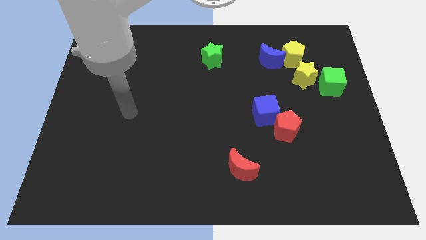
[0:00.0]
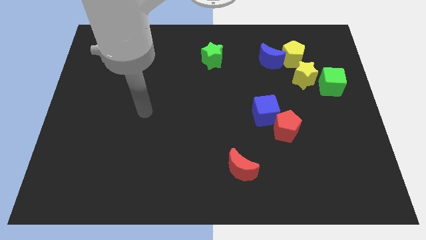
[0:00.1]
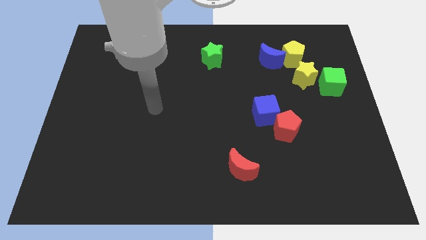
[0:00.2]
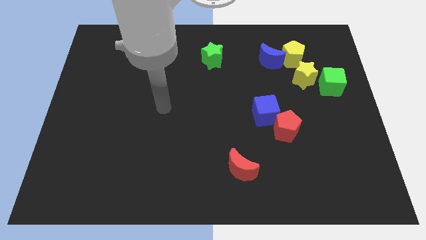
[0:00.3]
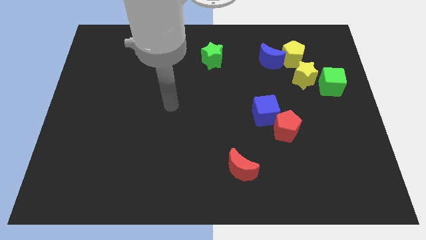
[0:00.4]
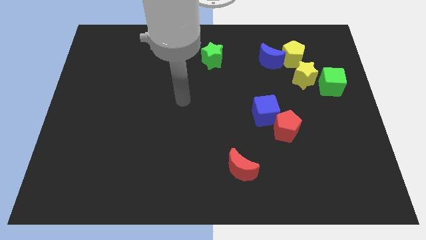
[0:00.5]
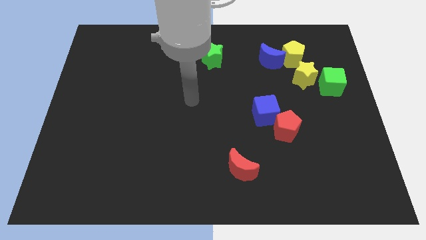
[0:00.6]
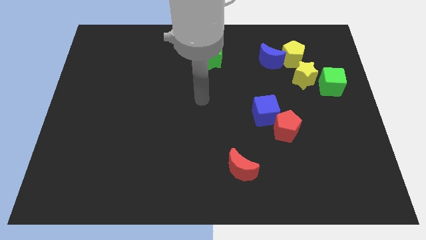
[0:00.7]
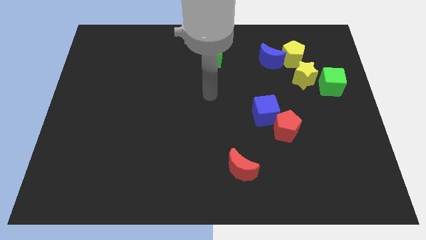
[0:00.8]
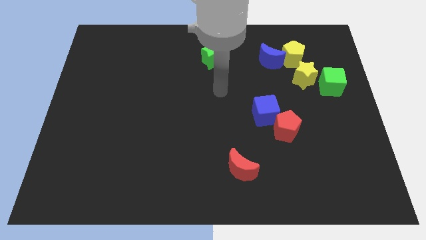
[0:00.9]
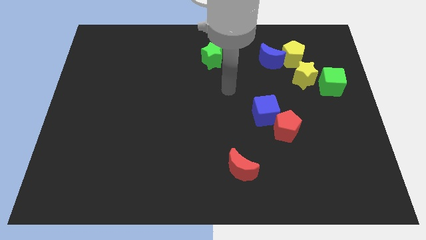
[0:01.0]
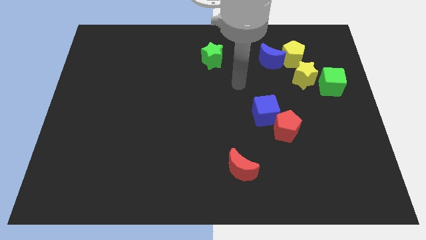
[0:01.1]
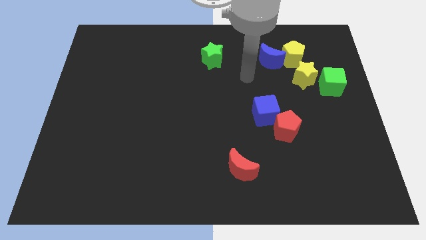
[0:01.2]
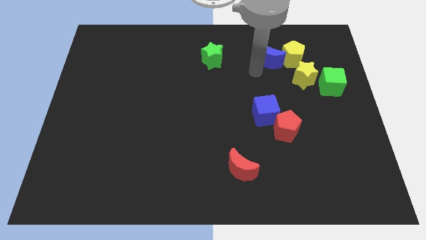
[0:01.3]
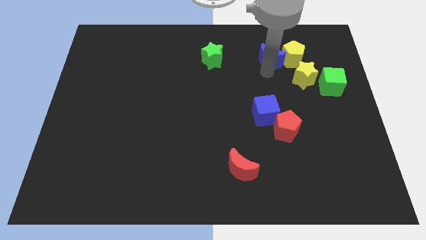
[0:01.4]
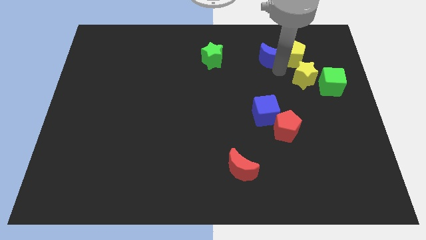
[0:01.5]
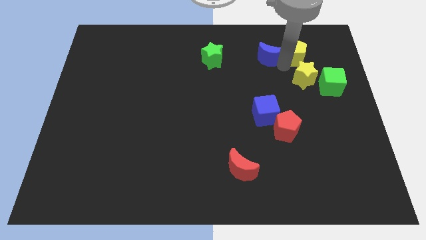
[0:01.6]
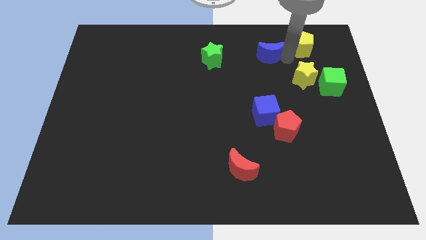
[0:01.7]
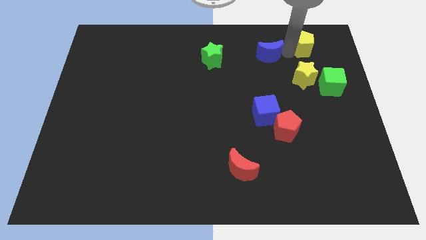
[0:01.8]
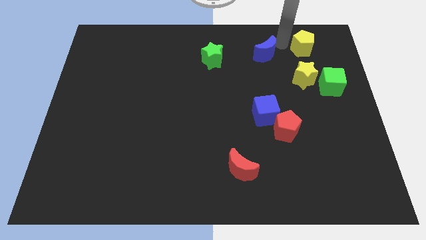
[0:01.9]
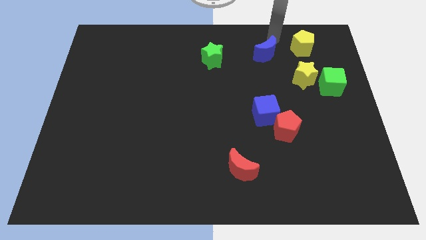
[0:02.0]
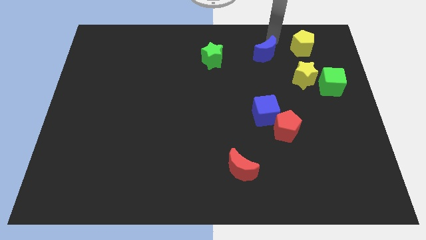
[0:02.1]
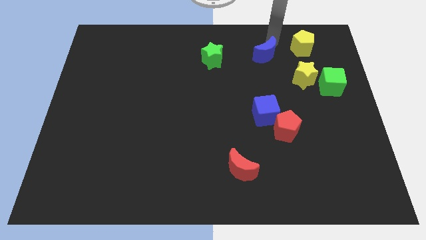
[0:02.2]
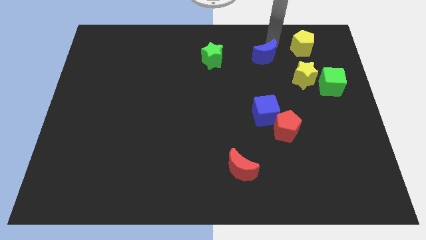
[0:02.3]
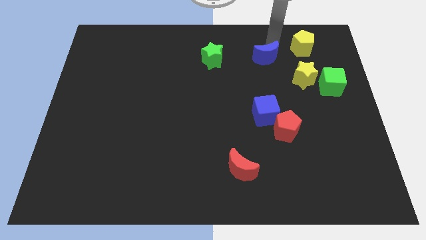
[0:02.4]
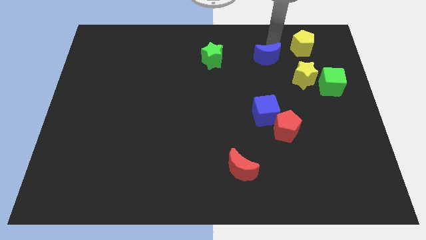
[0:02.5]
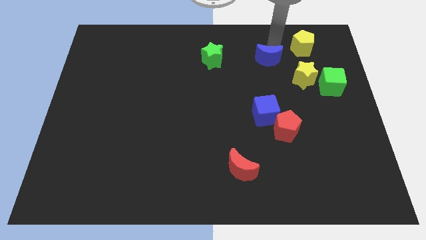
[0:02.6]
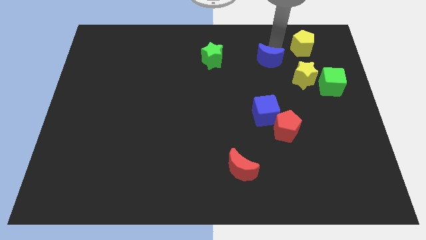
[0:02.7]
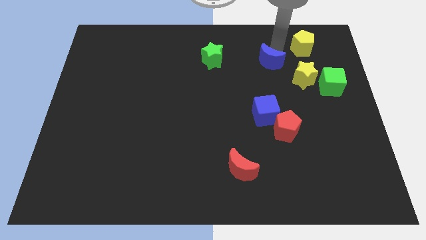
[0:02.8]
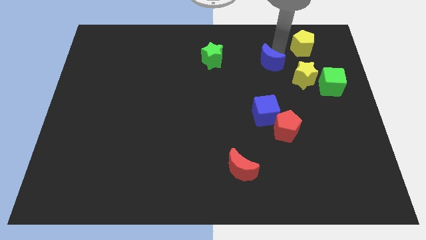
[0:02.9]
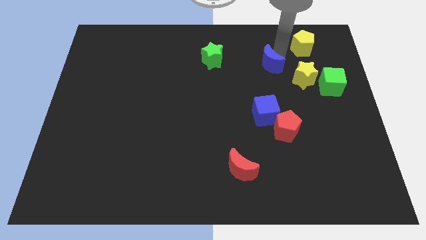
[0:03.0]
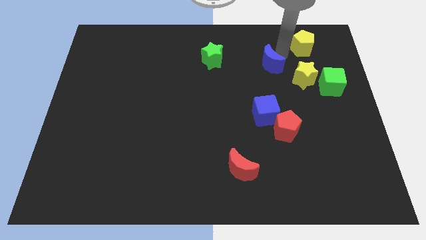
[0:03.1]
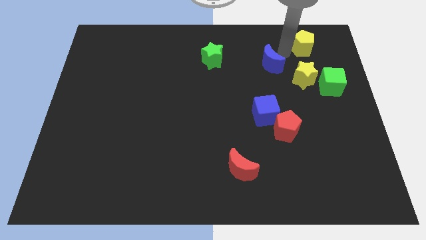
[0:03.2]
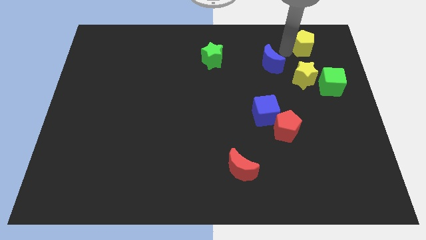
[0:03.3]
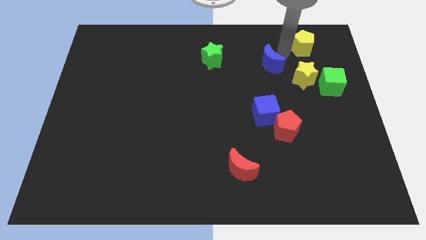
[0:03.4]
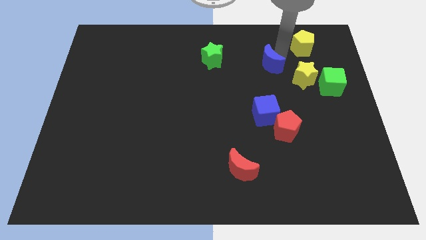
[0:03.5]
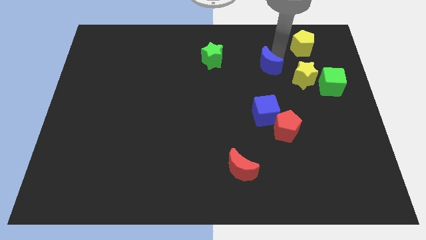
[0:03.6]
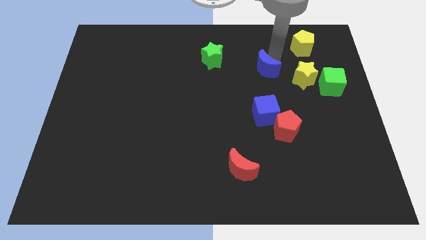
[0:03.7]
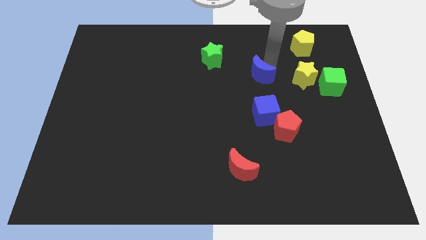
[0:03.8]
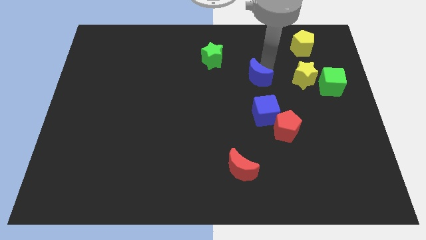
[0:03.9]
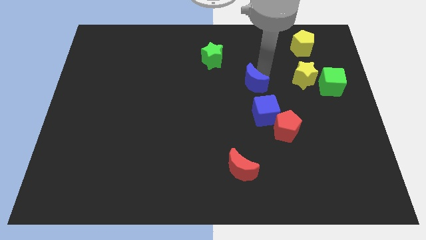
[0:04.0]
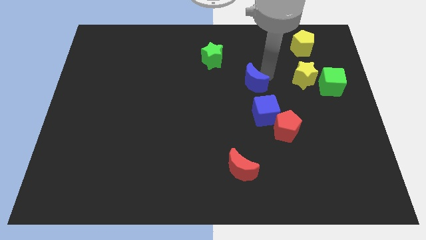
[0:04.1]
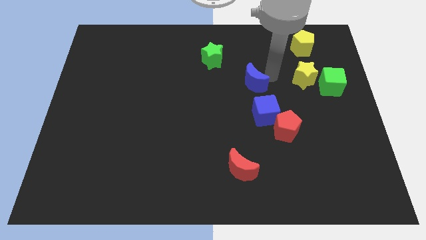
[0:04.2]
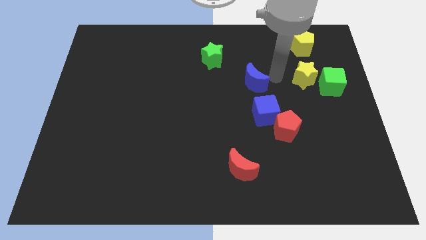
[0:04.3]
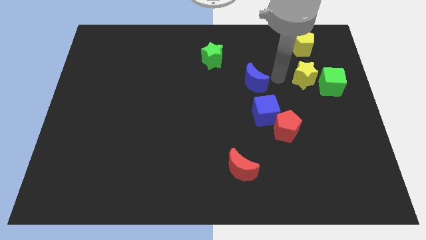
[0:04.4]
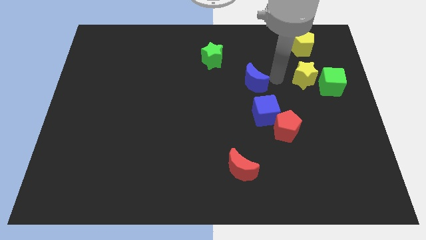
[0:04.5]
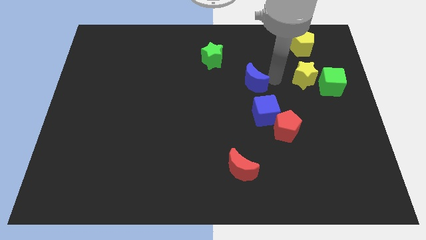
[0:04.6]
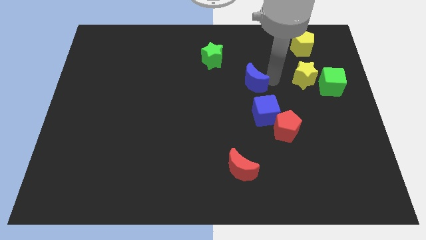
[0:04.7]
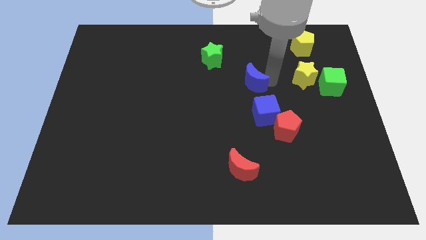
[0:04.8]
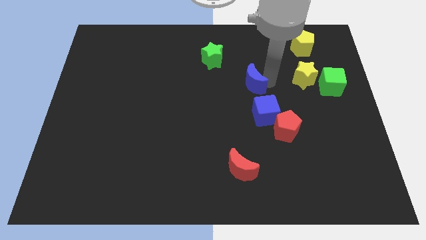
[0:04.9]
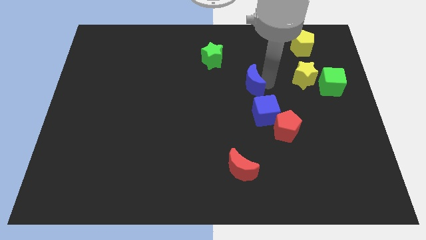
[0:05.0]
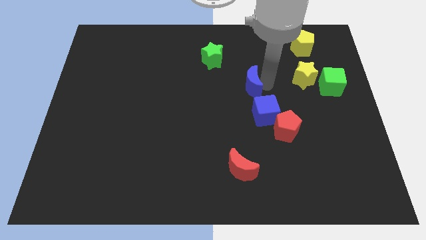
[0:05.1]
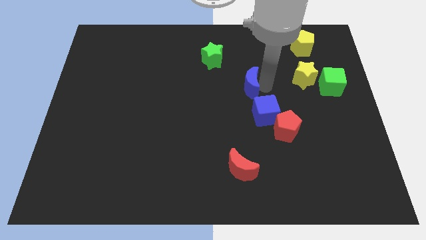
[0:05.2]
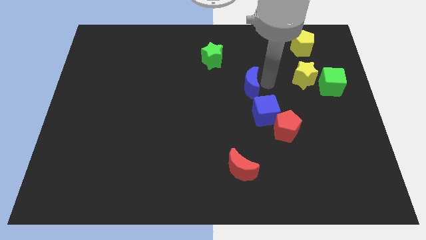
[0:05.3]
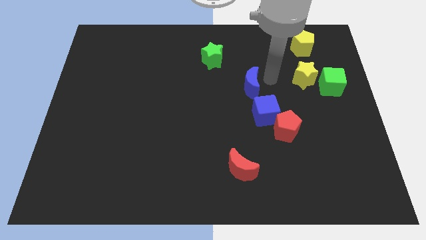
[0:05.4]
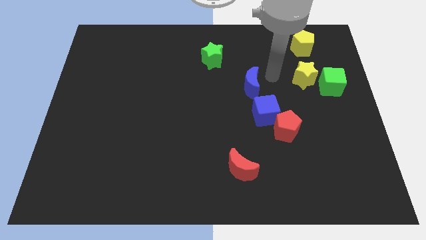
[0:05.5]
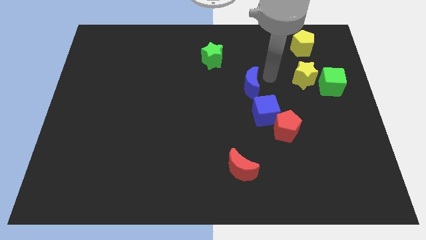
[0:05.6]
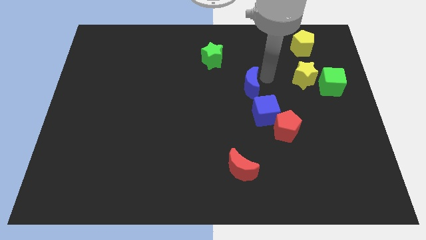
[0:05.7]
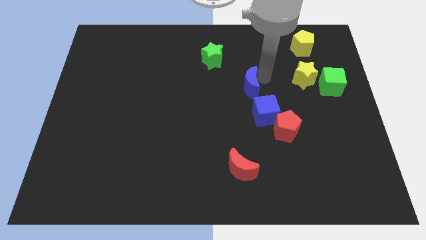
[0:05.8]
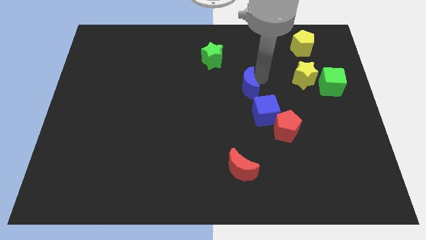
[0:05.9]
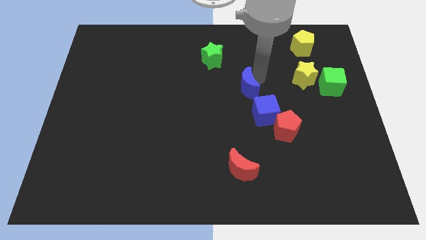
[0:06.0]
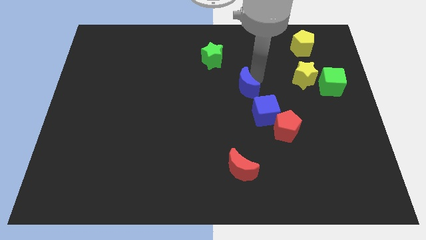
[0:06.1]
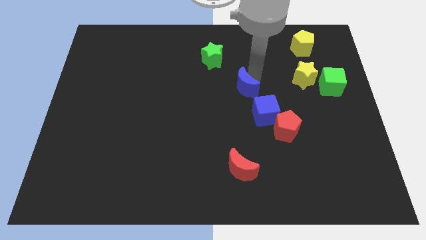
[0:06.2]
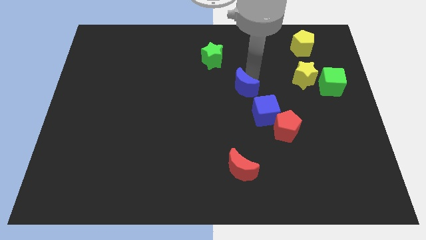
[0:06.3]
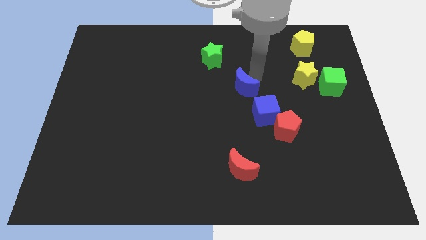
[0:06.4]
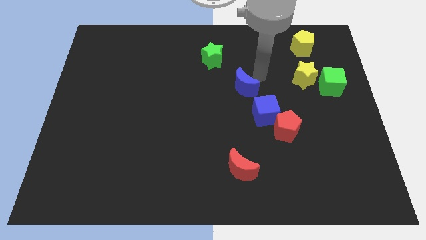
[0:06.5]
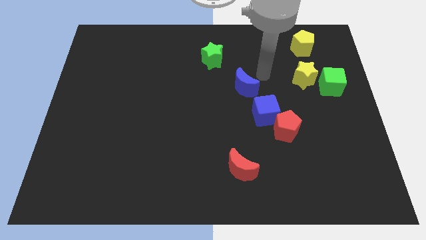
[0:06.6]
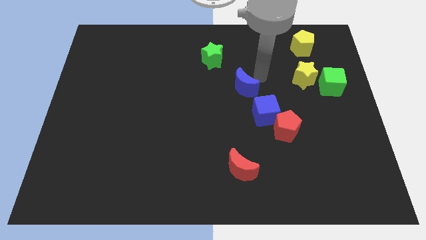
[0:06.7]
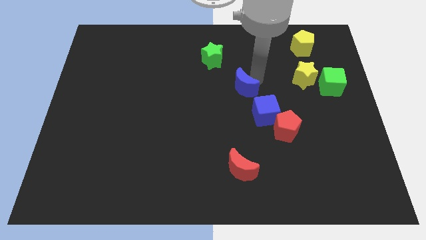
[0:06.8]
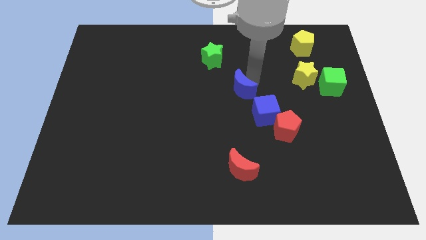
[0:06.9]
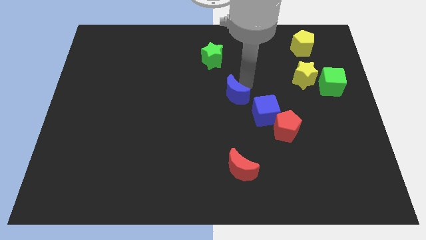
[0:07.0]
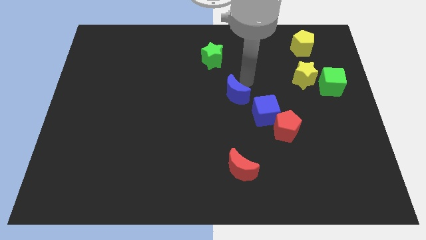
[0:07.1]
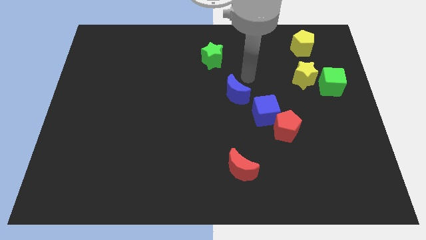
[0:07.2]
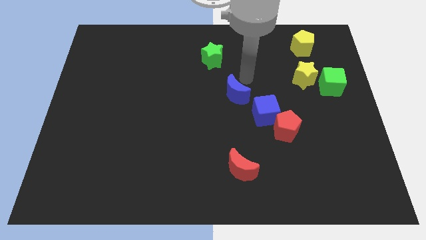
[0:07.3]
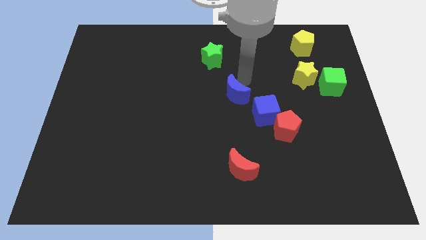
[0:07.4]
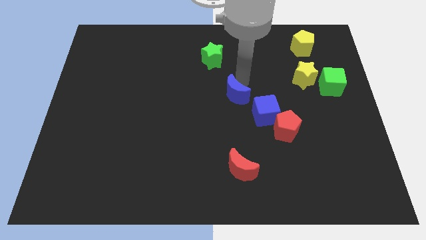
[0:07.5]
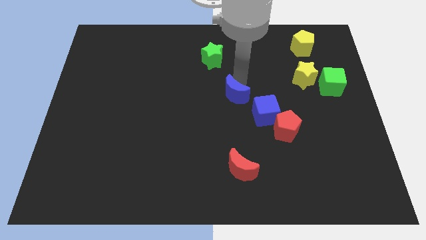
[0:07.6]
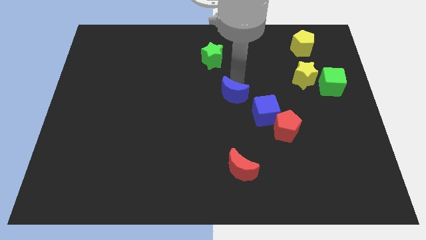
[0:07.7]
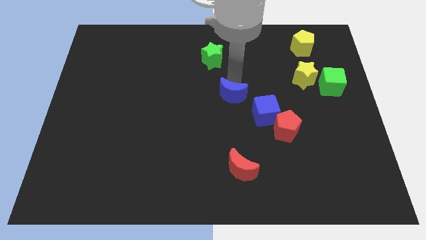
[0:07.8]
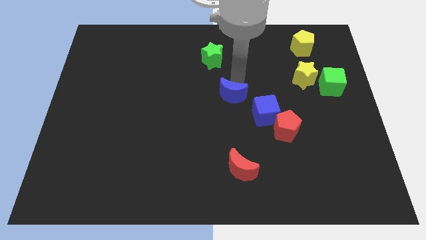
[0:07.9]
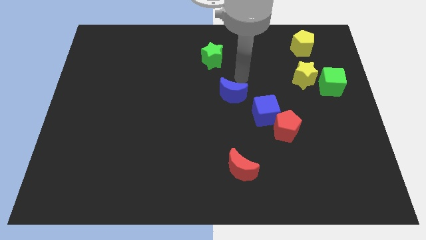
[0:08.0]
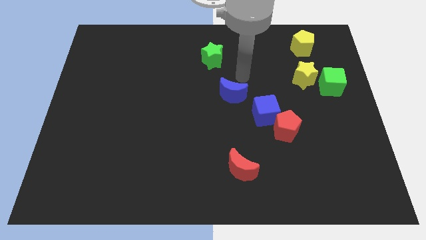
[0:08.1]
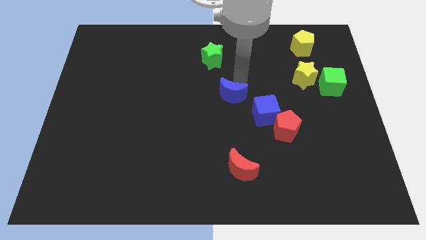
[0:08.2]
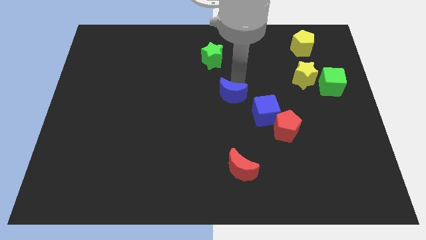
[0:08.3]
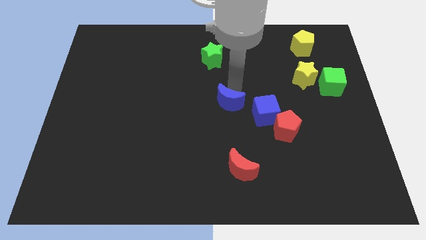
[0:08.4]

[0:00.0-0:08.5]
slide the blue moon to the left of the blue cube
